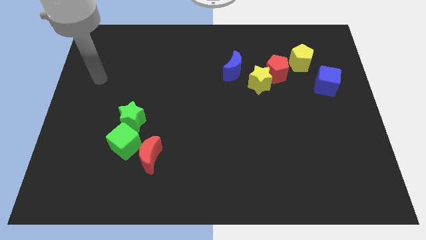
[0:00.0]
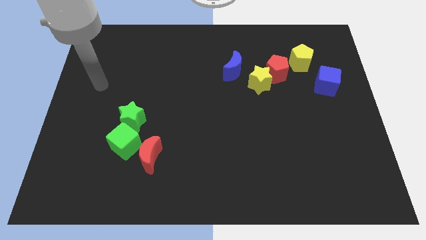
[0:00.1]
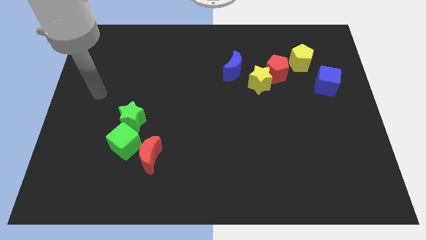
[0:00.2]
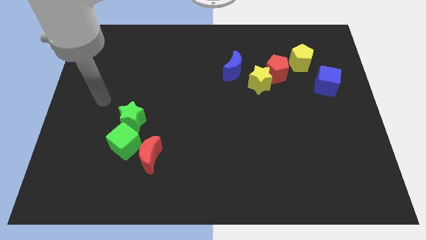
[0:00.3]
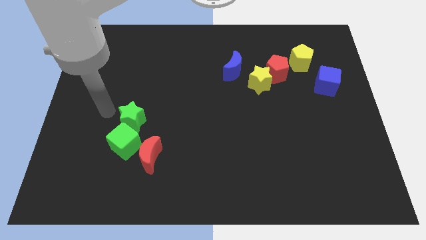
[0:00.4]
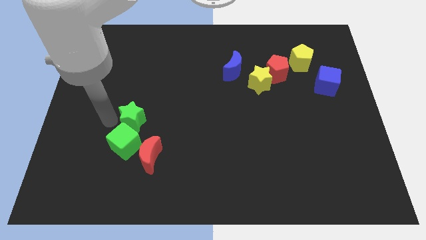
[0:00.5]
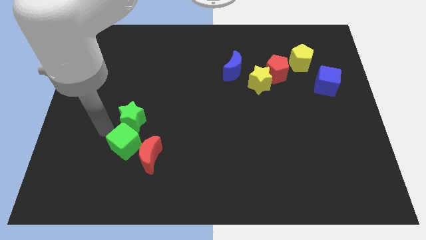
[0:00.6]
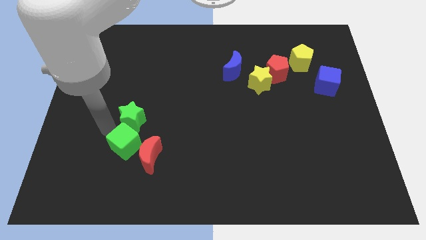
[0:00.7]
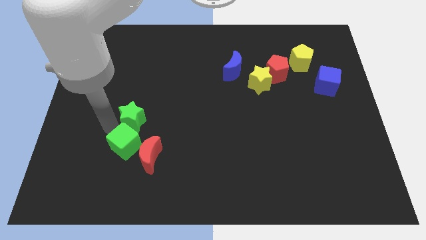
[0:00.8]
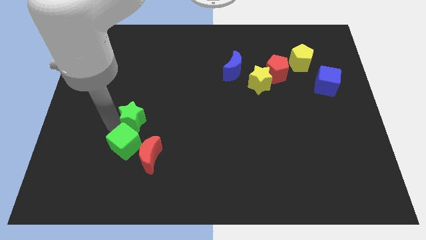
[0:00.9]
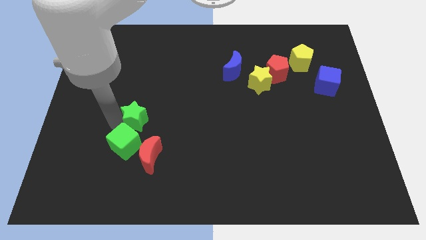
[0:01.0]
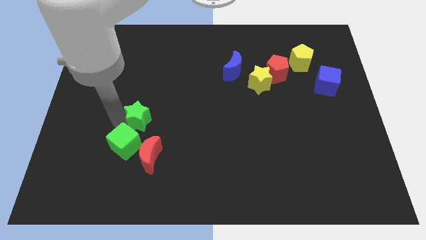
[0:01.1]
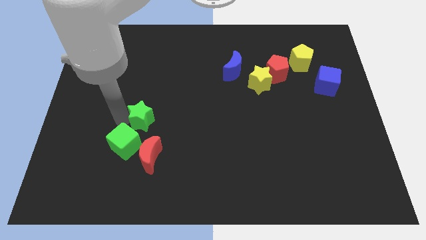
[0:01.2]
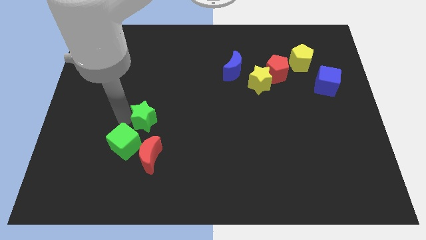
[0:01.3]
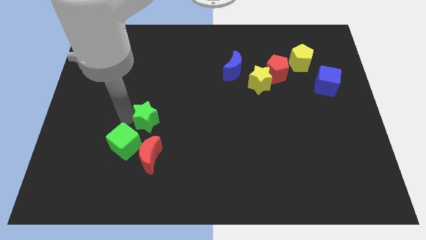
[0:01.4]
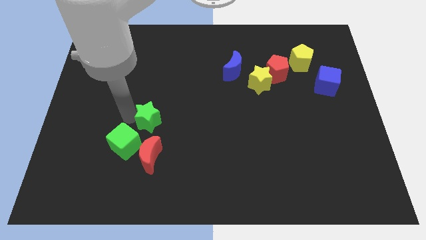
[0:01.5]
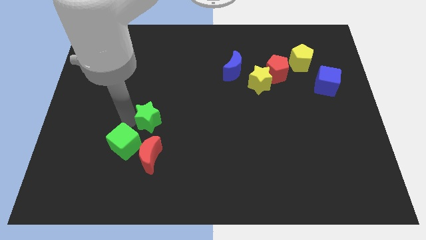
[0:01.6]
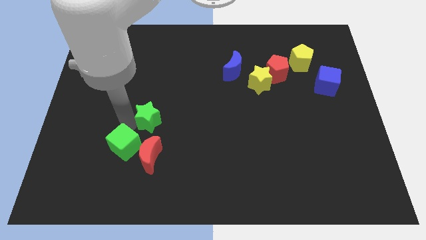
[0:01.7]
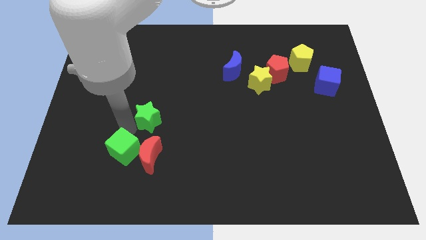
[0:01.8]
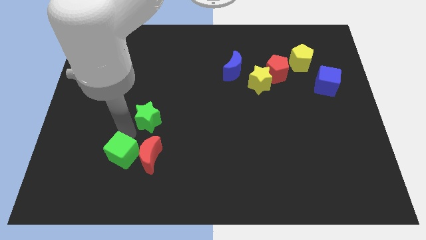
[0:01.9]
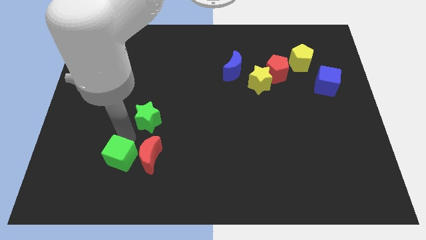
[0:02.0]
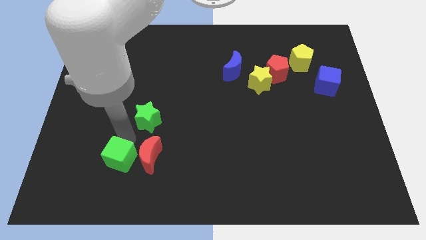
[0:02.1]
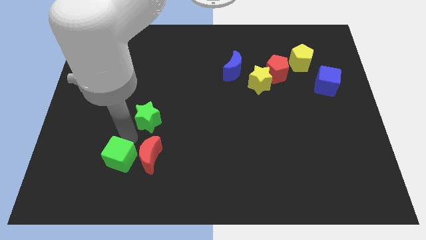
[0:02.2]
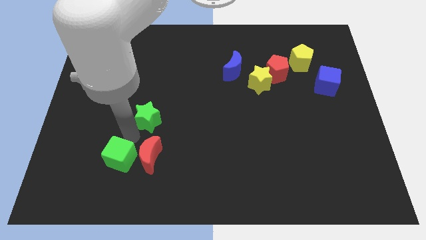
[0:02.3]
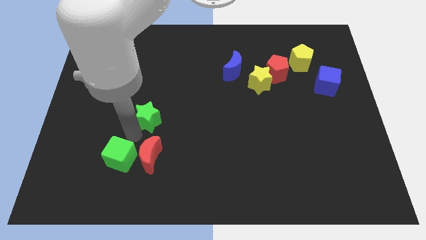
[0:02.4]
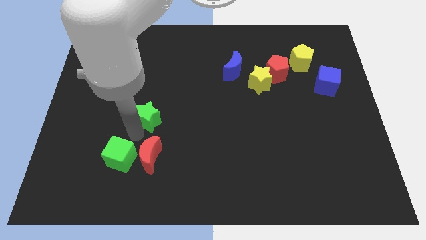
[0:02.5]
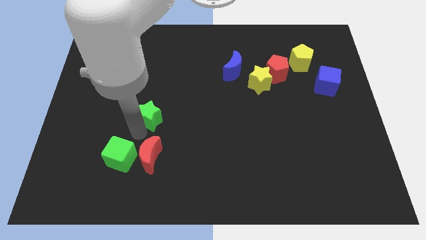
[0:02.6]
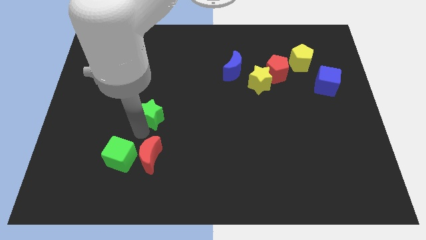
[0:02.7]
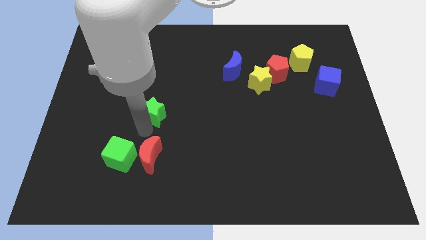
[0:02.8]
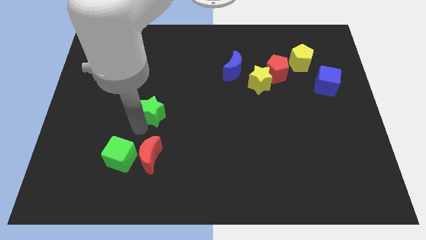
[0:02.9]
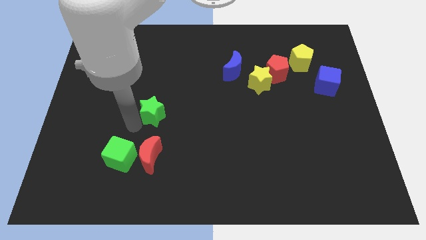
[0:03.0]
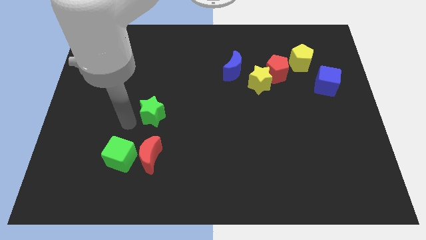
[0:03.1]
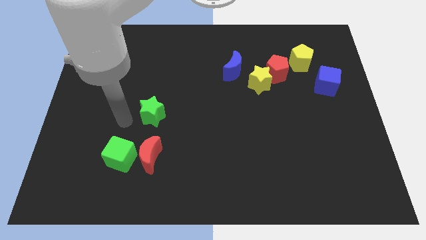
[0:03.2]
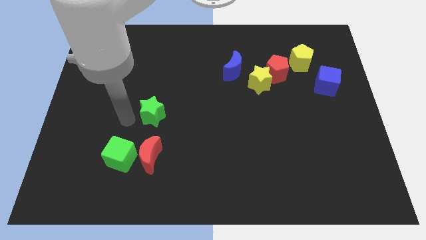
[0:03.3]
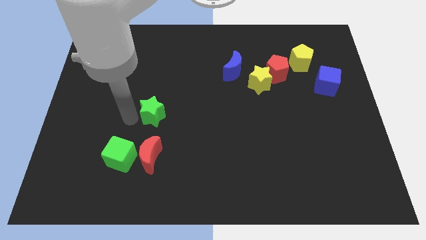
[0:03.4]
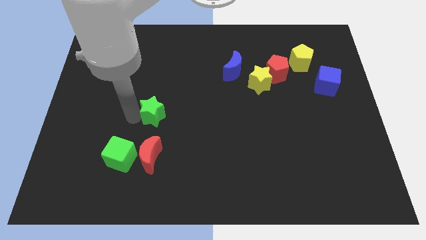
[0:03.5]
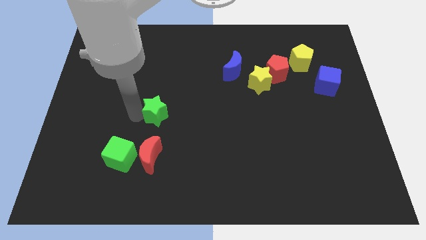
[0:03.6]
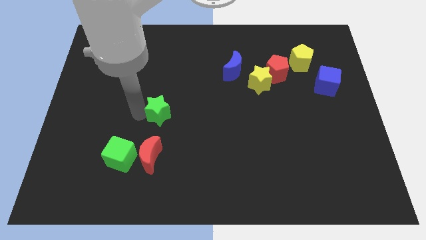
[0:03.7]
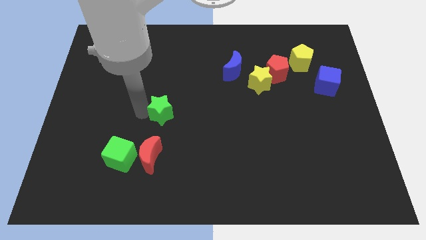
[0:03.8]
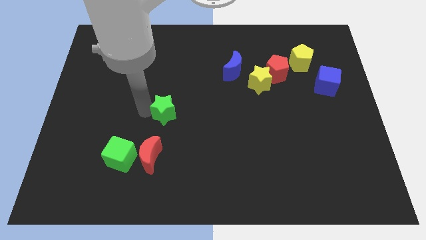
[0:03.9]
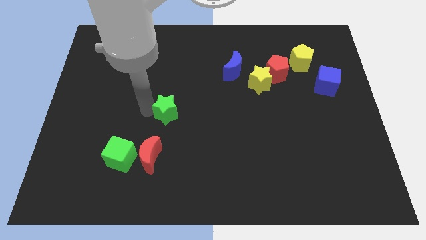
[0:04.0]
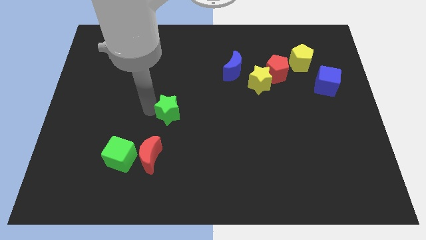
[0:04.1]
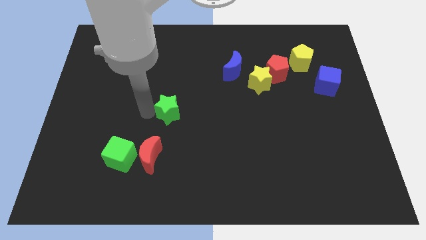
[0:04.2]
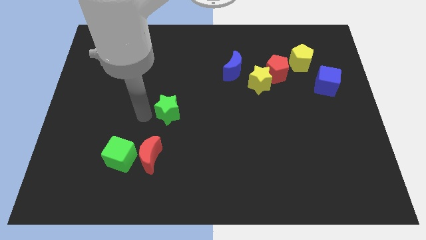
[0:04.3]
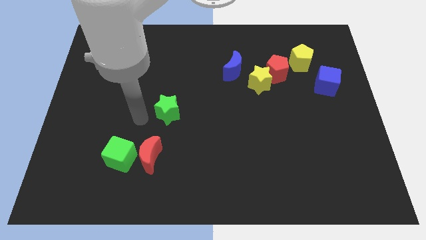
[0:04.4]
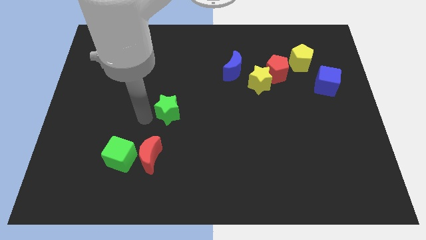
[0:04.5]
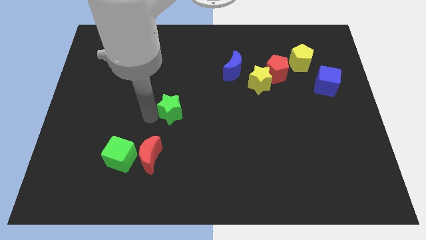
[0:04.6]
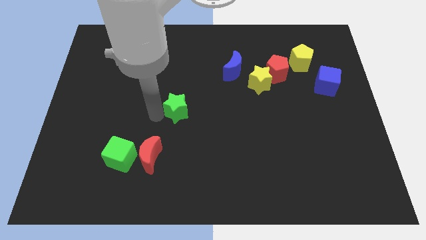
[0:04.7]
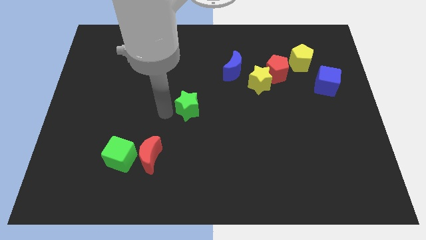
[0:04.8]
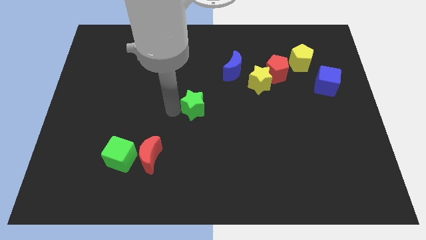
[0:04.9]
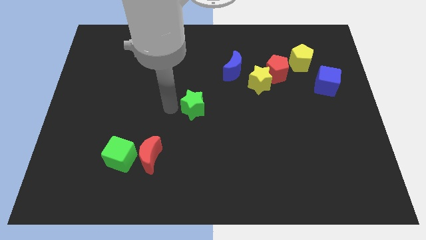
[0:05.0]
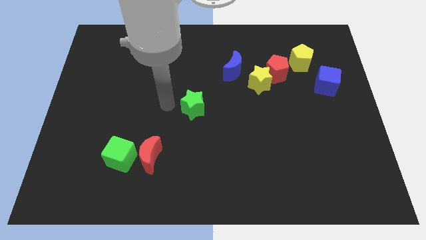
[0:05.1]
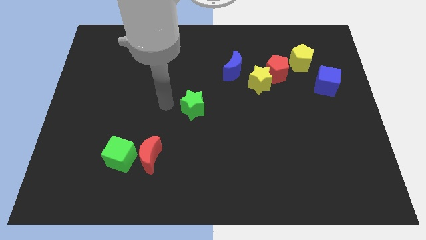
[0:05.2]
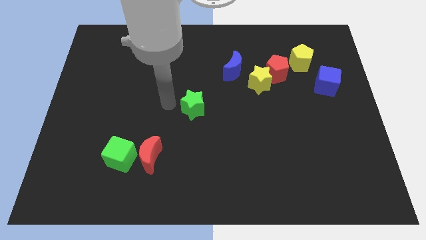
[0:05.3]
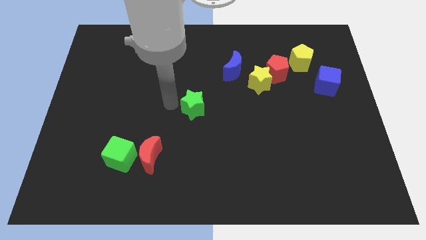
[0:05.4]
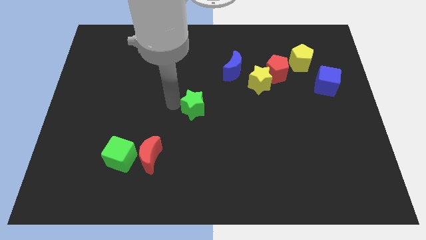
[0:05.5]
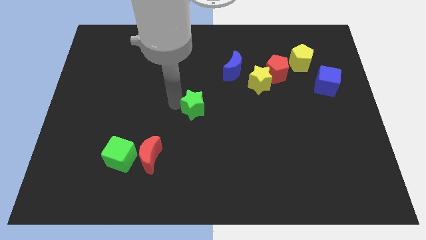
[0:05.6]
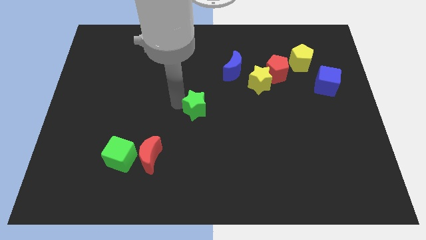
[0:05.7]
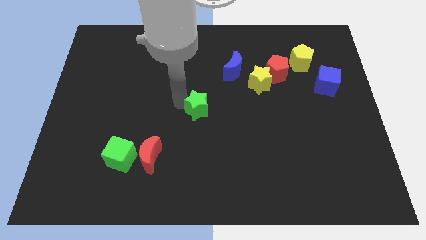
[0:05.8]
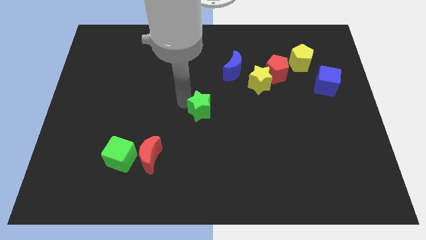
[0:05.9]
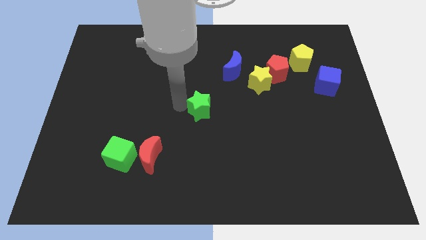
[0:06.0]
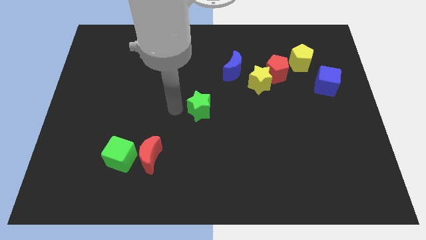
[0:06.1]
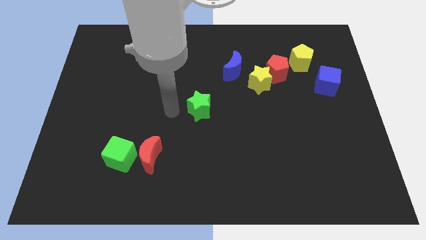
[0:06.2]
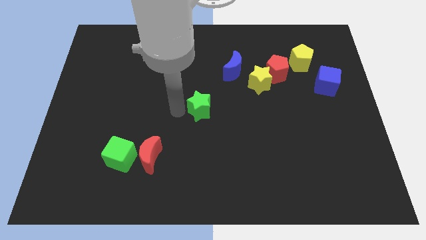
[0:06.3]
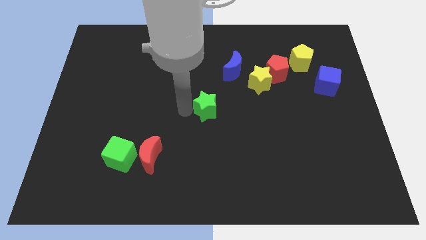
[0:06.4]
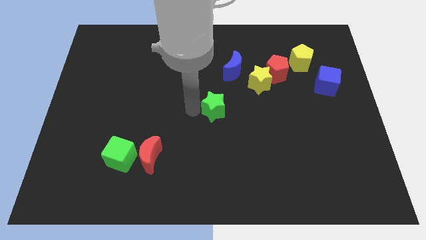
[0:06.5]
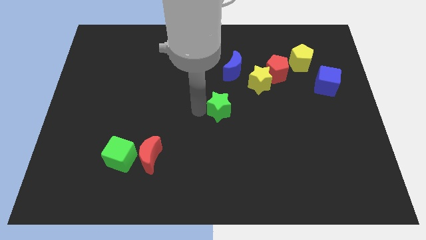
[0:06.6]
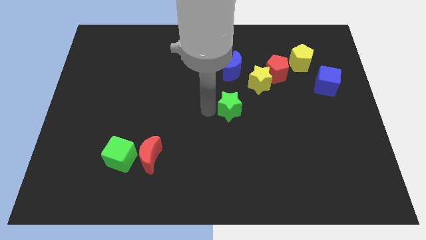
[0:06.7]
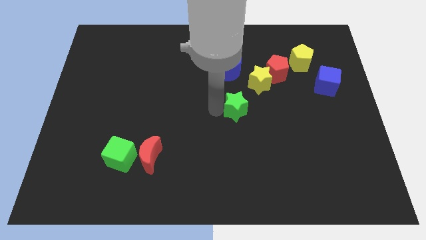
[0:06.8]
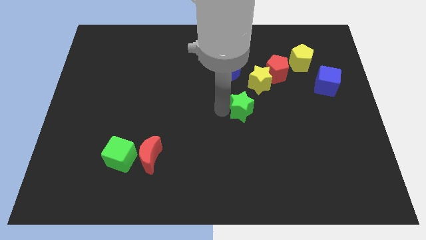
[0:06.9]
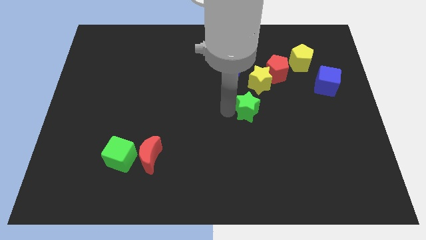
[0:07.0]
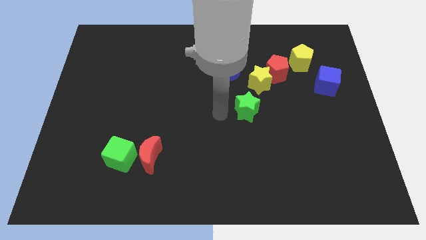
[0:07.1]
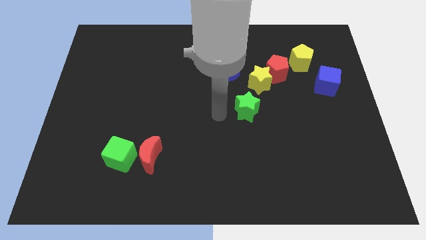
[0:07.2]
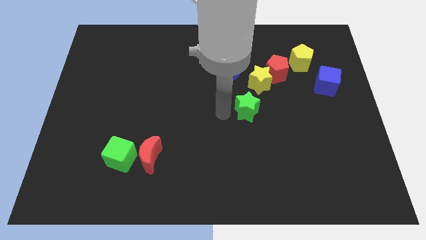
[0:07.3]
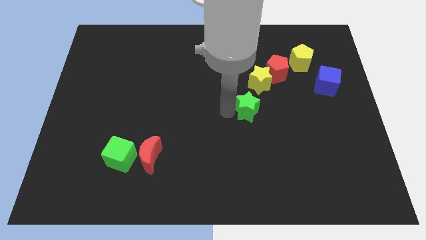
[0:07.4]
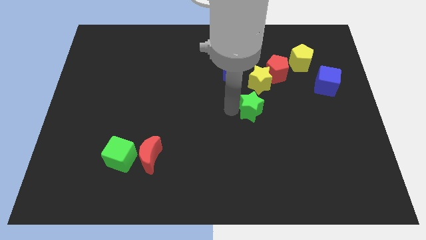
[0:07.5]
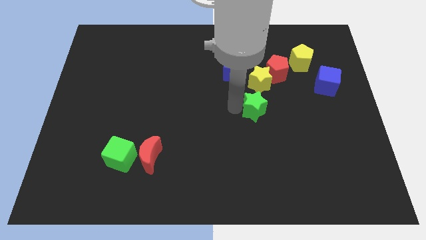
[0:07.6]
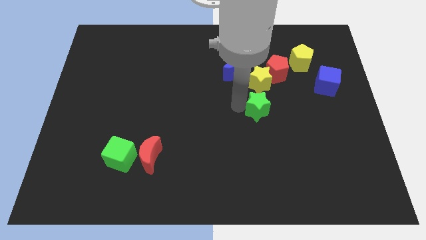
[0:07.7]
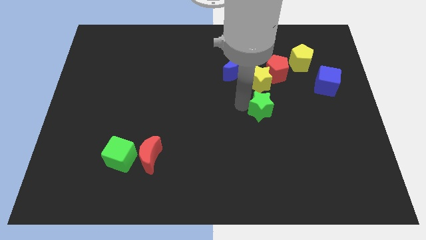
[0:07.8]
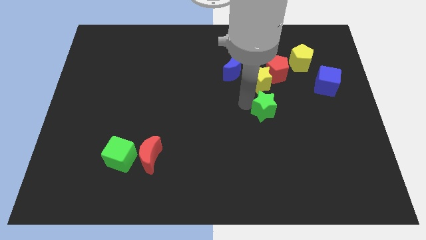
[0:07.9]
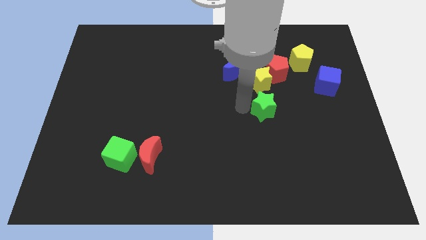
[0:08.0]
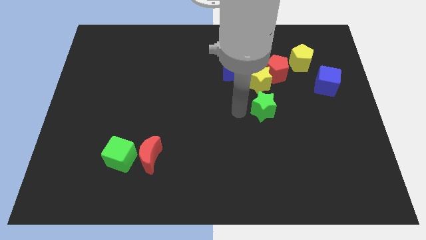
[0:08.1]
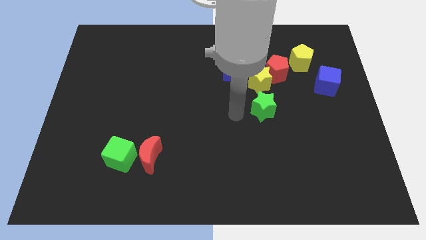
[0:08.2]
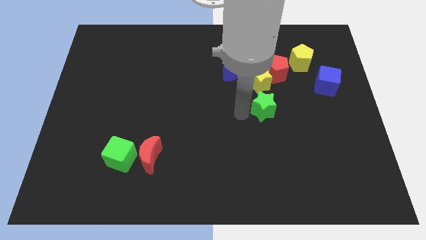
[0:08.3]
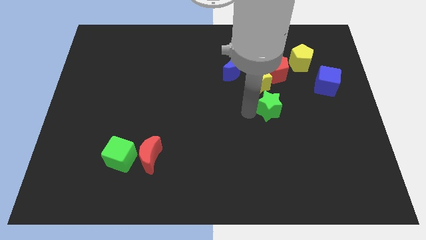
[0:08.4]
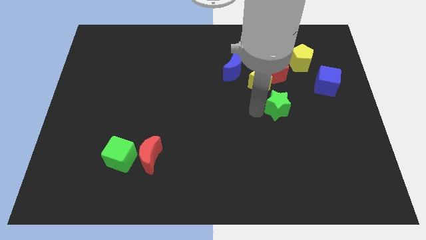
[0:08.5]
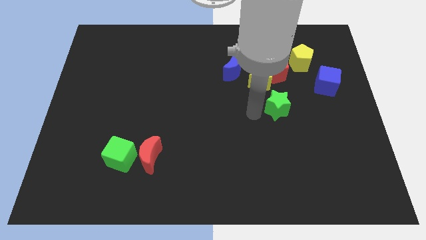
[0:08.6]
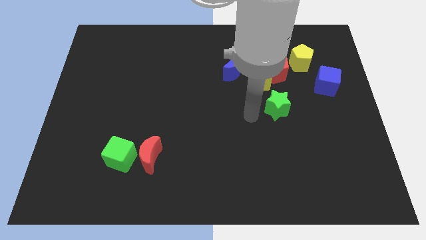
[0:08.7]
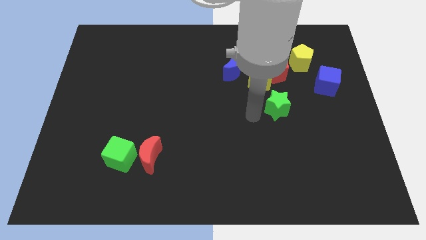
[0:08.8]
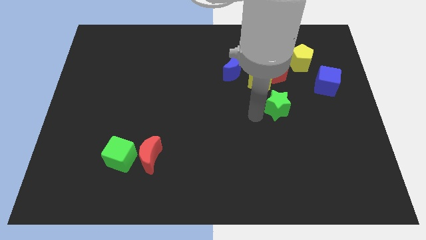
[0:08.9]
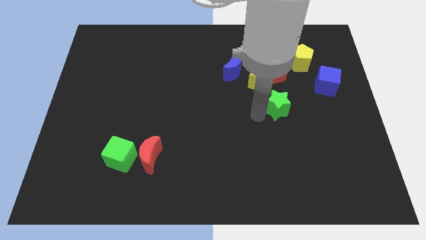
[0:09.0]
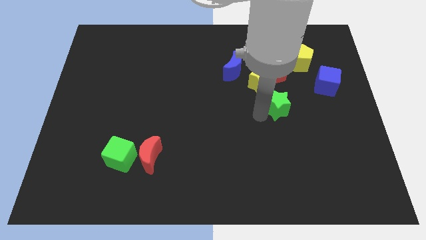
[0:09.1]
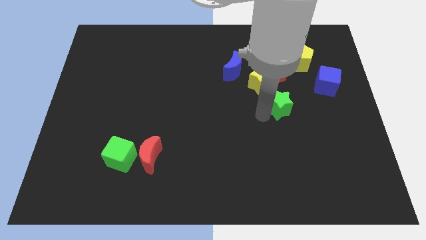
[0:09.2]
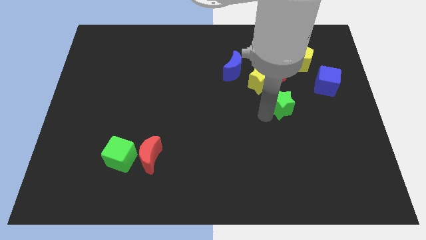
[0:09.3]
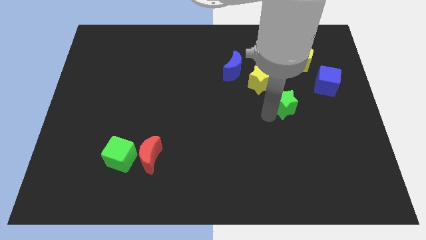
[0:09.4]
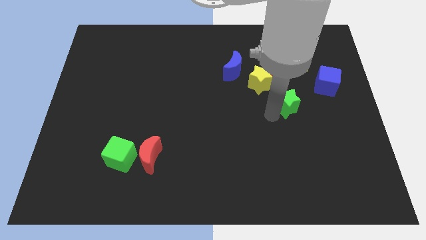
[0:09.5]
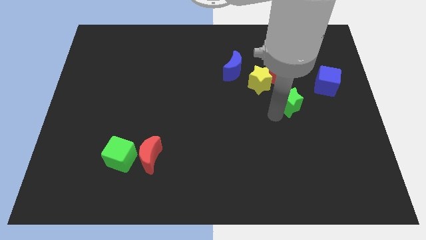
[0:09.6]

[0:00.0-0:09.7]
move the green star diagonally down and to the left of the blue cube
